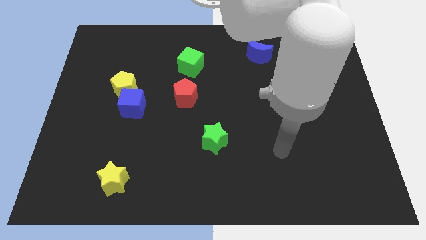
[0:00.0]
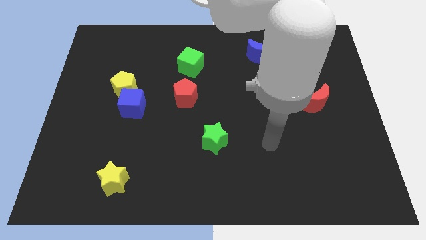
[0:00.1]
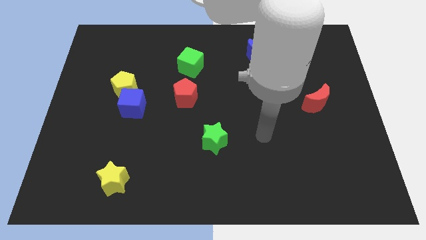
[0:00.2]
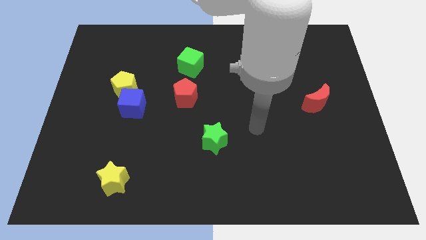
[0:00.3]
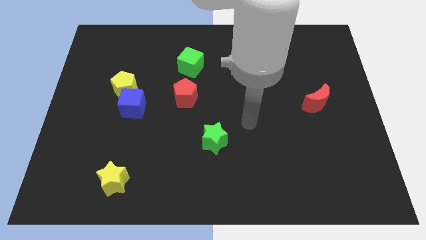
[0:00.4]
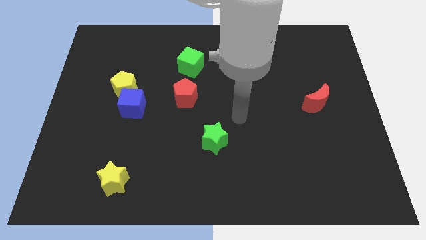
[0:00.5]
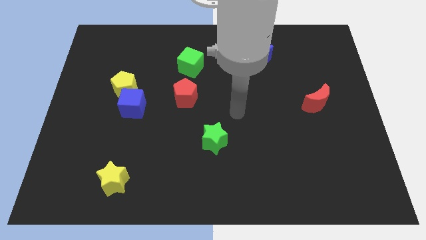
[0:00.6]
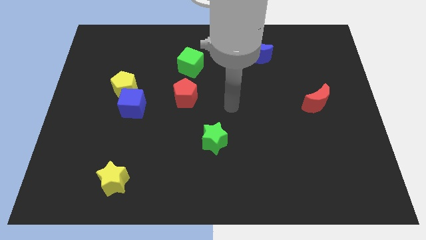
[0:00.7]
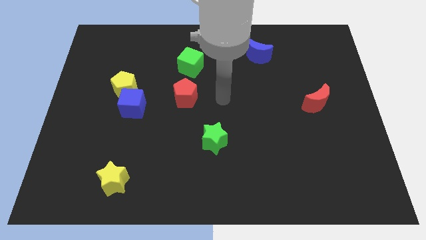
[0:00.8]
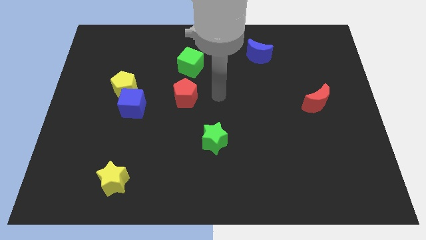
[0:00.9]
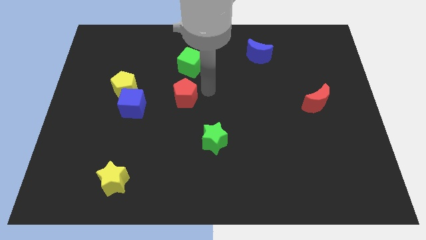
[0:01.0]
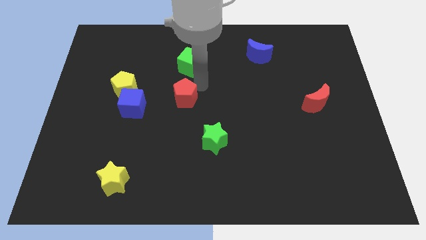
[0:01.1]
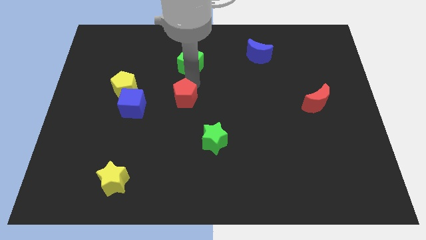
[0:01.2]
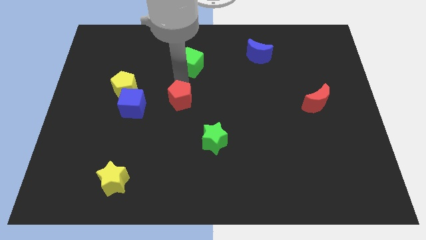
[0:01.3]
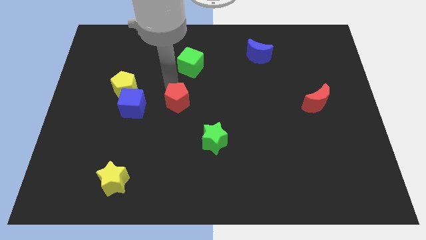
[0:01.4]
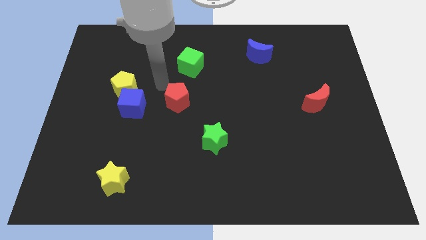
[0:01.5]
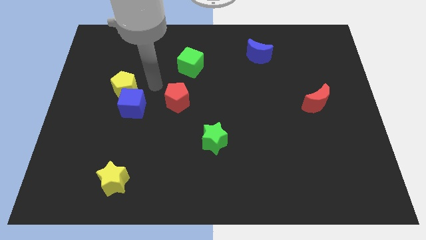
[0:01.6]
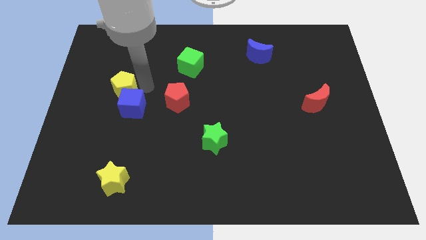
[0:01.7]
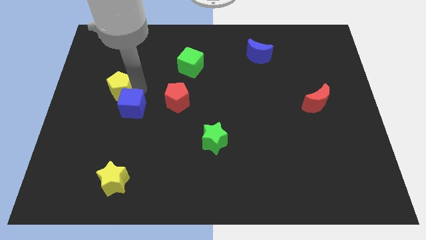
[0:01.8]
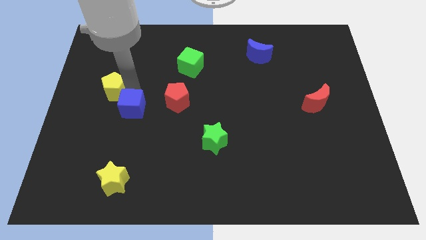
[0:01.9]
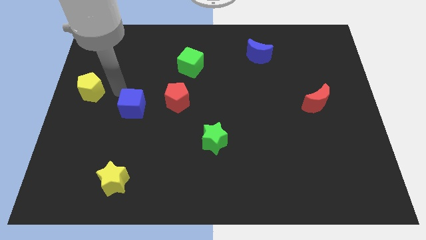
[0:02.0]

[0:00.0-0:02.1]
pull the blue cube apart from the yellow pentagon

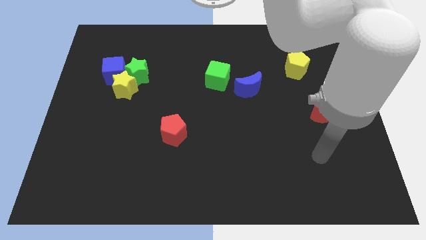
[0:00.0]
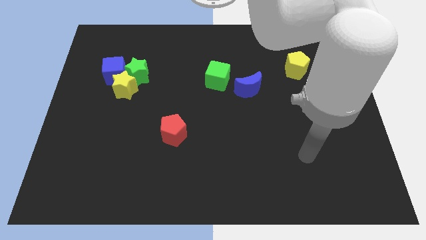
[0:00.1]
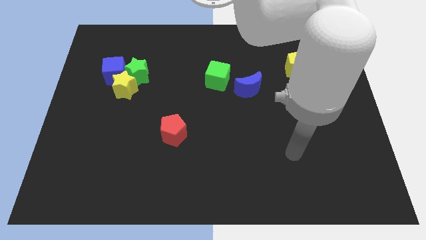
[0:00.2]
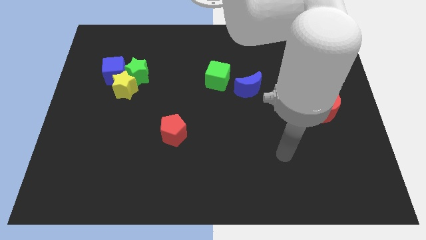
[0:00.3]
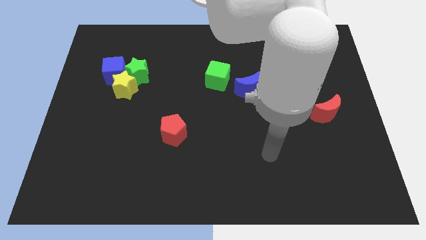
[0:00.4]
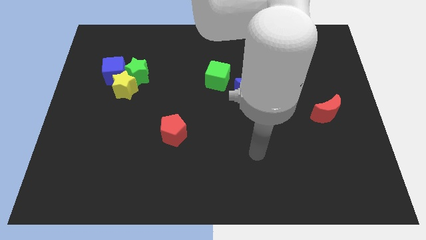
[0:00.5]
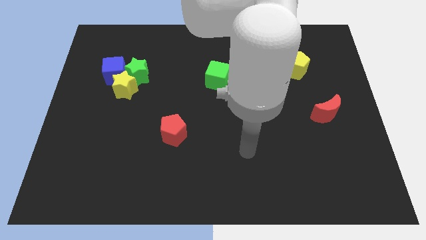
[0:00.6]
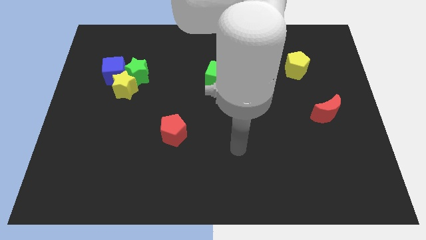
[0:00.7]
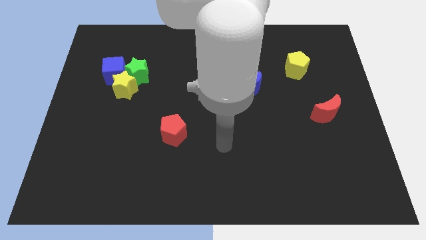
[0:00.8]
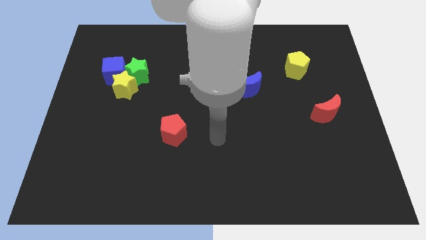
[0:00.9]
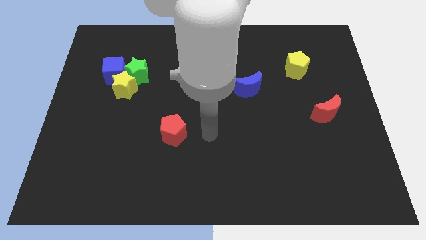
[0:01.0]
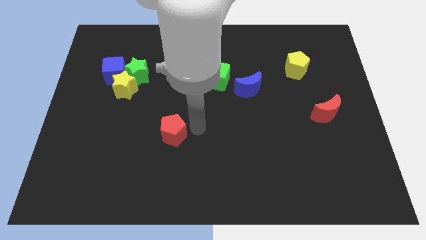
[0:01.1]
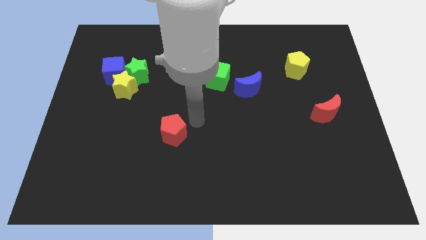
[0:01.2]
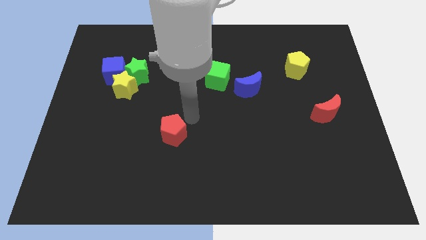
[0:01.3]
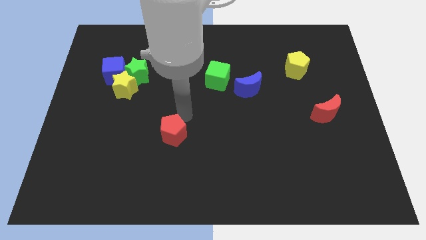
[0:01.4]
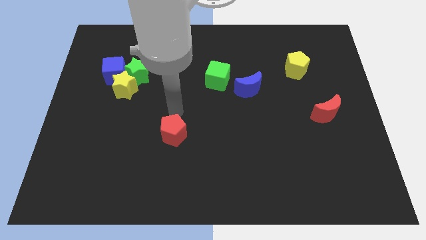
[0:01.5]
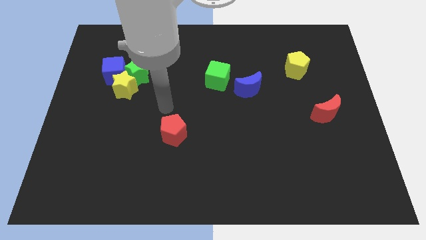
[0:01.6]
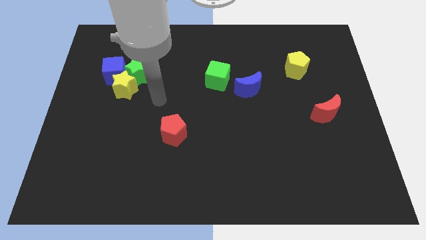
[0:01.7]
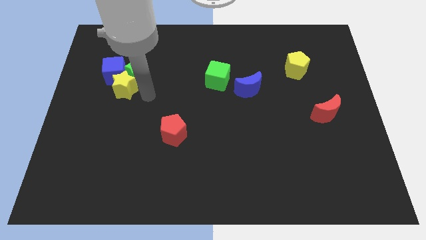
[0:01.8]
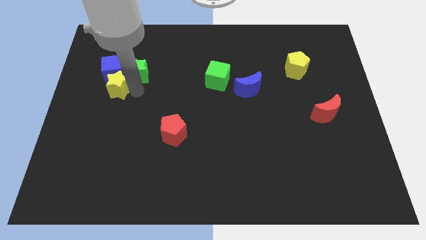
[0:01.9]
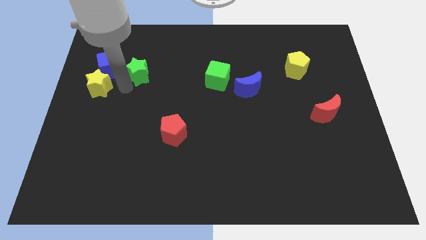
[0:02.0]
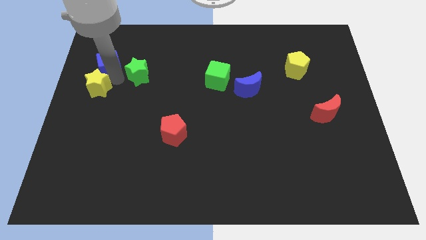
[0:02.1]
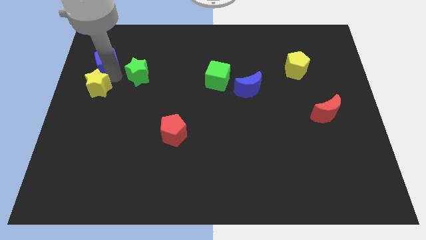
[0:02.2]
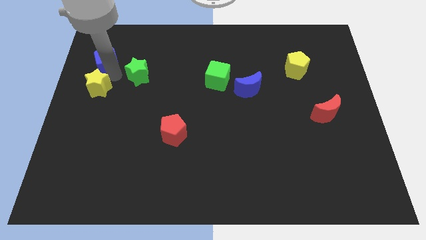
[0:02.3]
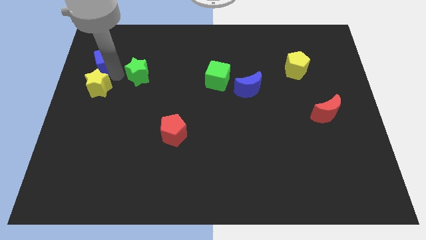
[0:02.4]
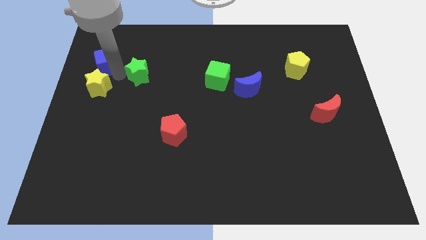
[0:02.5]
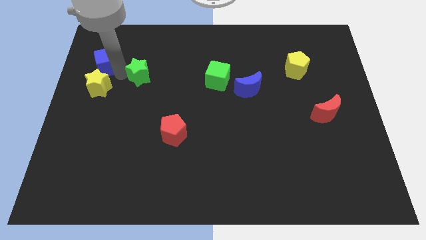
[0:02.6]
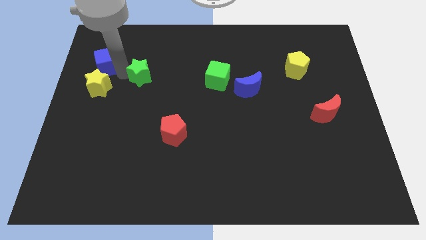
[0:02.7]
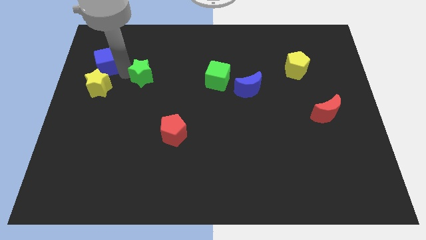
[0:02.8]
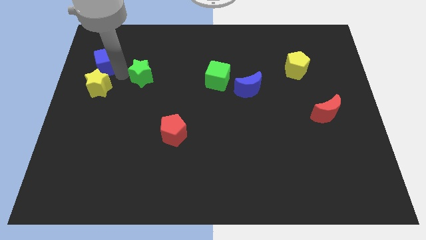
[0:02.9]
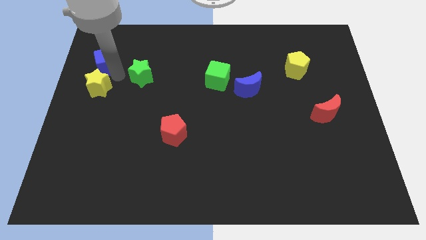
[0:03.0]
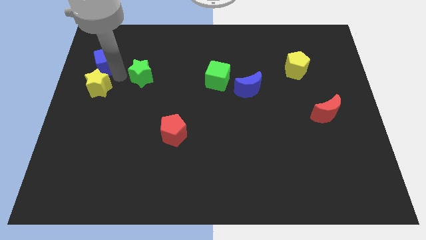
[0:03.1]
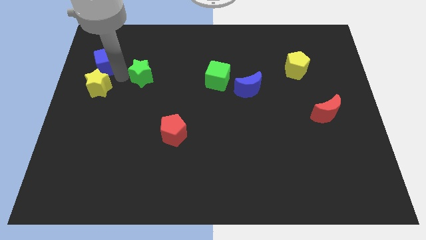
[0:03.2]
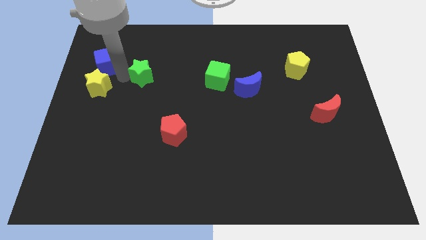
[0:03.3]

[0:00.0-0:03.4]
pull the green star apart from the yellow star and blue cube

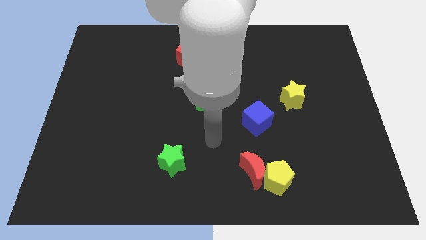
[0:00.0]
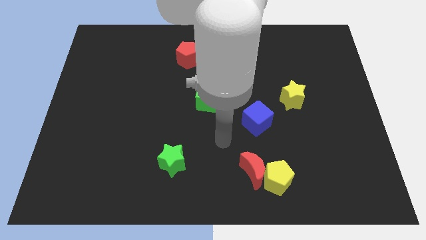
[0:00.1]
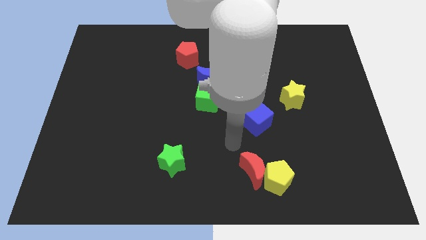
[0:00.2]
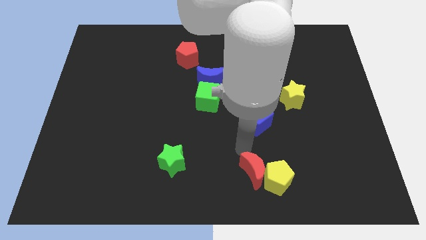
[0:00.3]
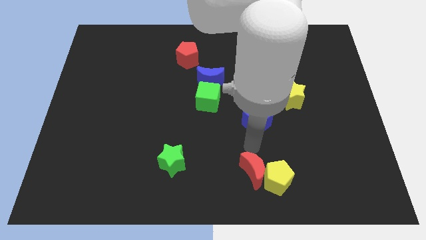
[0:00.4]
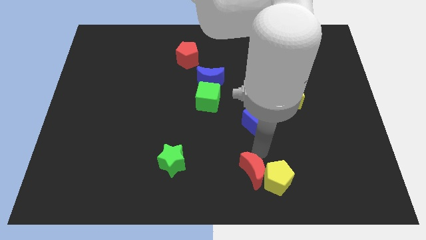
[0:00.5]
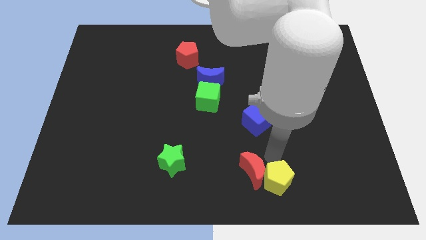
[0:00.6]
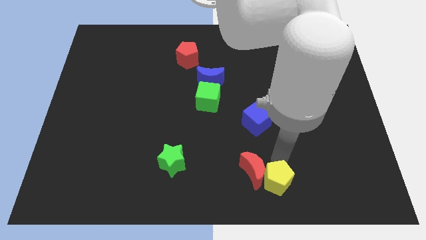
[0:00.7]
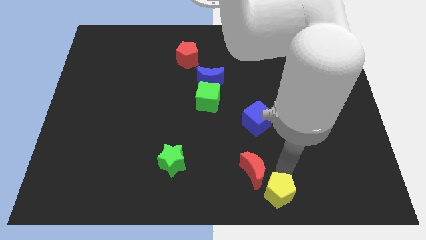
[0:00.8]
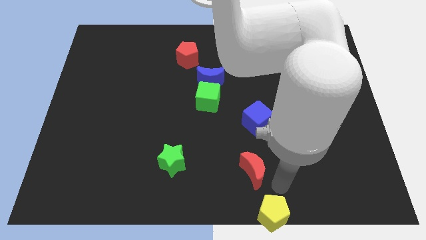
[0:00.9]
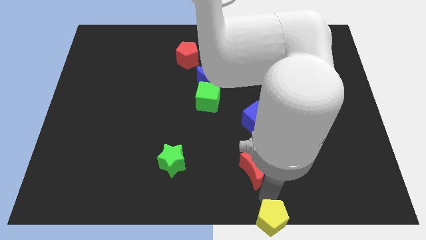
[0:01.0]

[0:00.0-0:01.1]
move the red moon away from the yellow pentagon

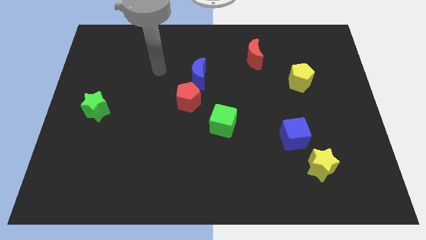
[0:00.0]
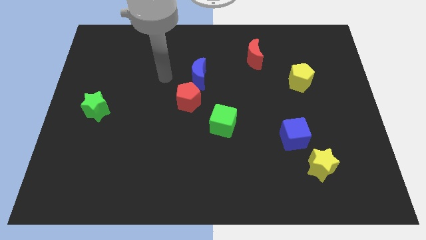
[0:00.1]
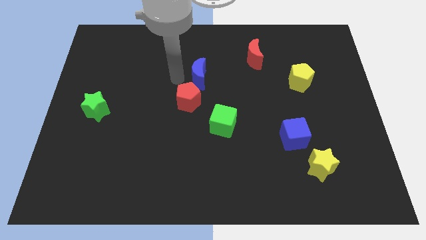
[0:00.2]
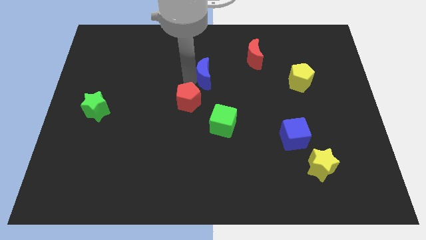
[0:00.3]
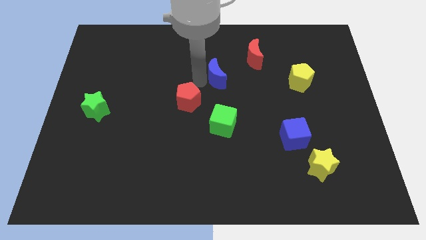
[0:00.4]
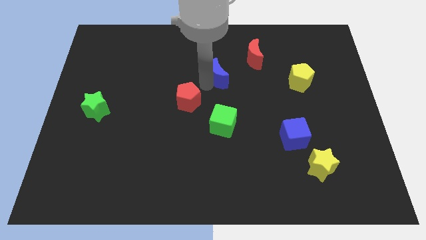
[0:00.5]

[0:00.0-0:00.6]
pull the red pentagon apart from the blue moon

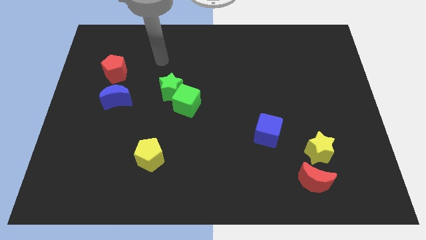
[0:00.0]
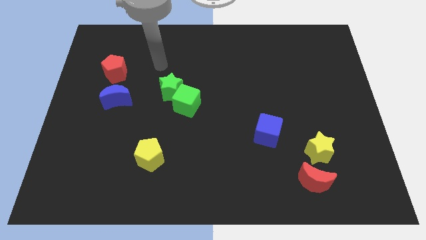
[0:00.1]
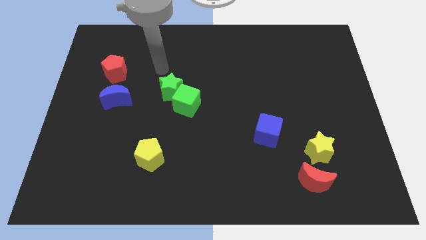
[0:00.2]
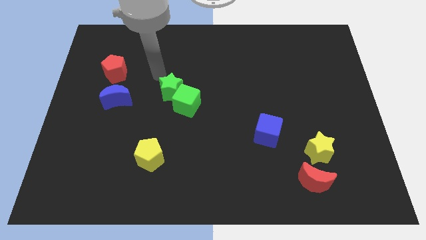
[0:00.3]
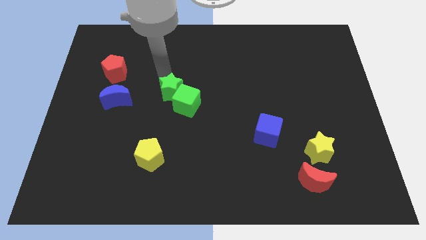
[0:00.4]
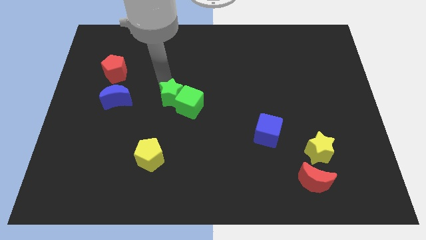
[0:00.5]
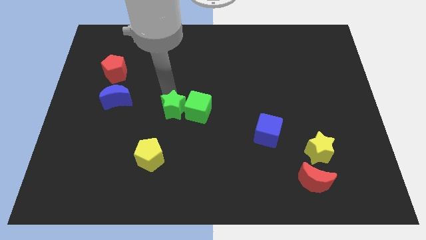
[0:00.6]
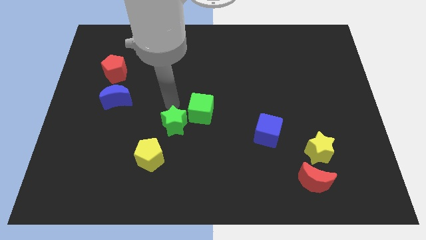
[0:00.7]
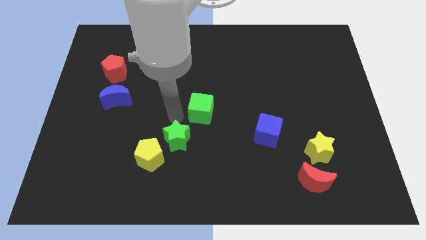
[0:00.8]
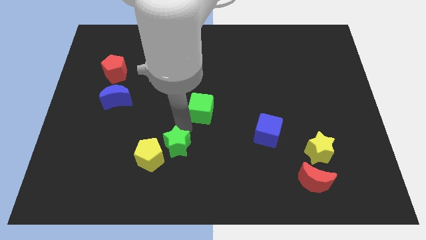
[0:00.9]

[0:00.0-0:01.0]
separate the green cube from the green star

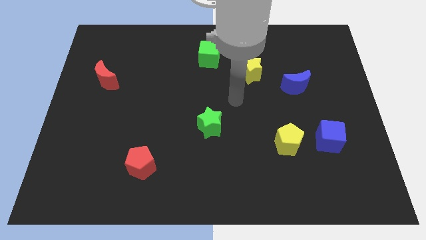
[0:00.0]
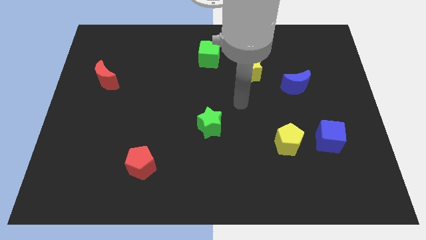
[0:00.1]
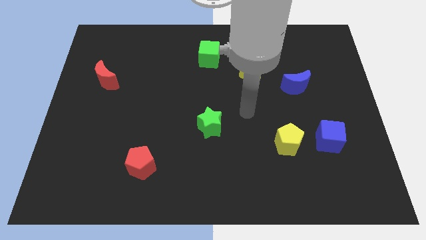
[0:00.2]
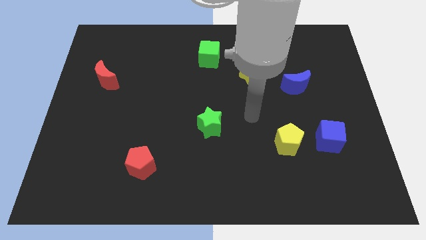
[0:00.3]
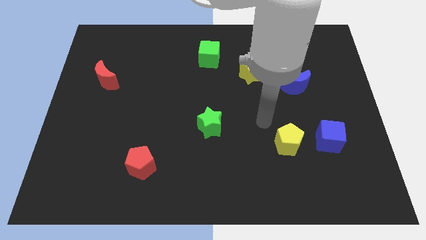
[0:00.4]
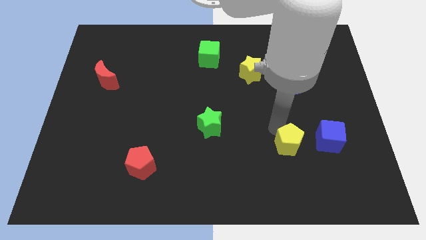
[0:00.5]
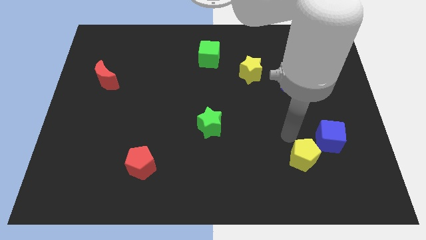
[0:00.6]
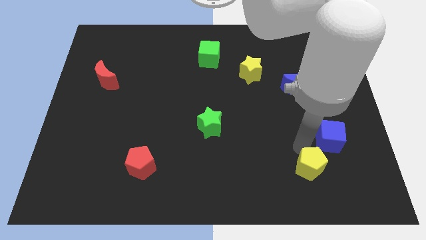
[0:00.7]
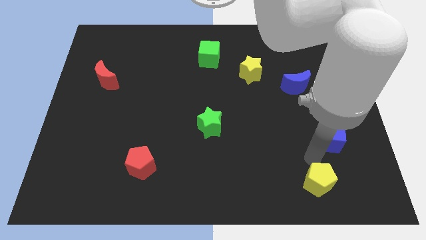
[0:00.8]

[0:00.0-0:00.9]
move the blue cube away from the yellow pentagon

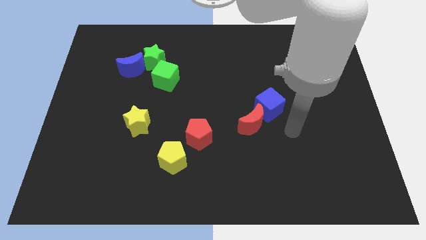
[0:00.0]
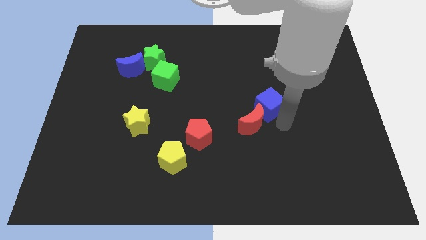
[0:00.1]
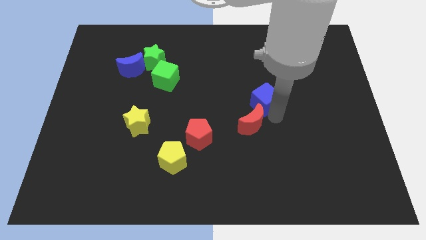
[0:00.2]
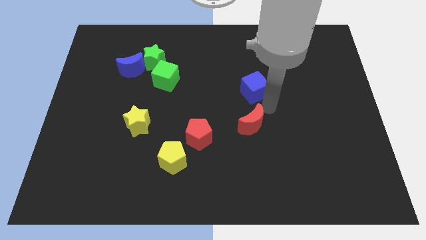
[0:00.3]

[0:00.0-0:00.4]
move the red moon away from the blue cube

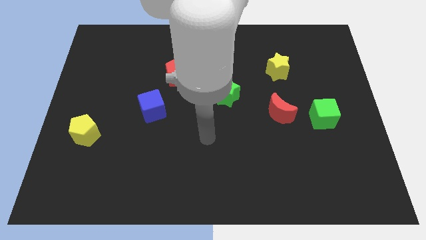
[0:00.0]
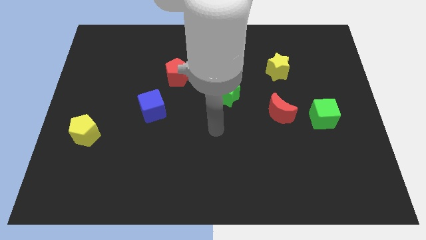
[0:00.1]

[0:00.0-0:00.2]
pull the red moon apart from the green cube
